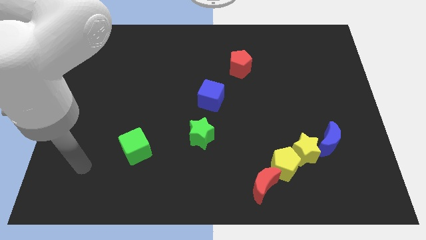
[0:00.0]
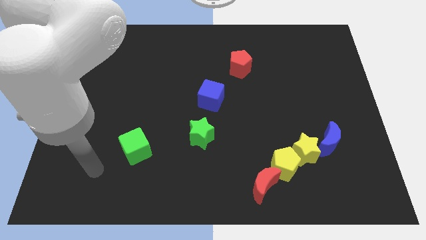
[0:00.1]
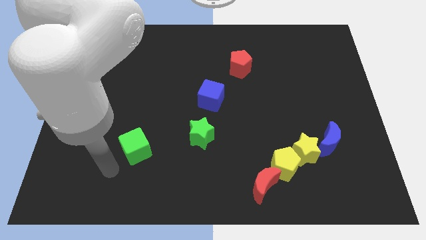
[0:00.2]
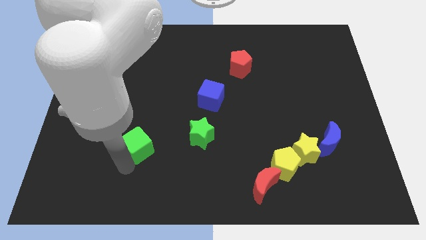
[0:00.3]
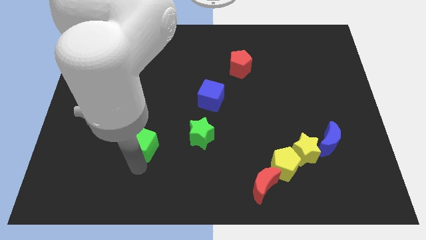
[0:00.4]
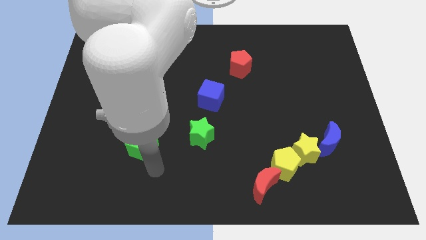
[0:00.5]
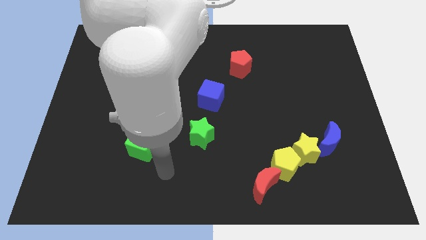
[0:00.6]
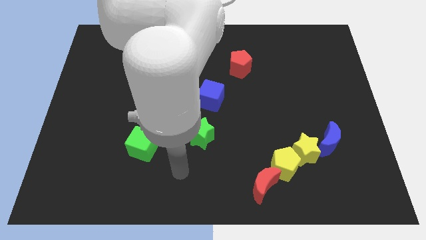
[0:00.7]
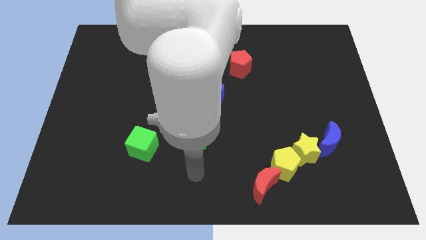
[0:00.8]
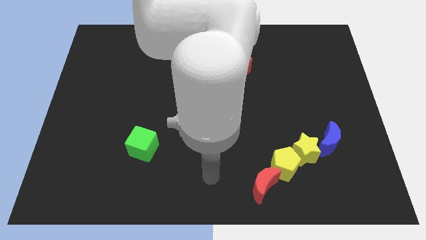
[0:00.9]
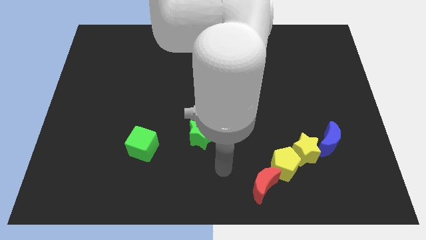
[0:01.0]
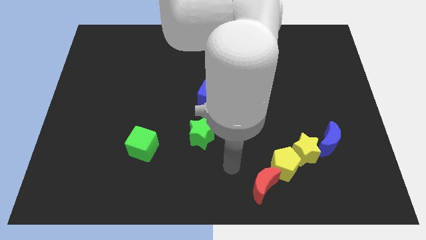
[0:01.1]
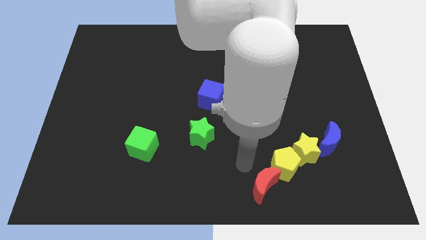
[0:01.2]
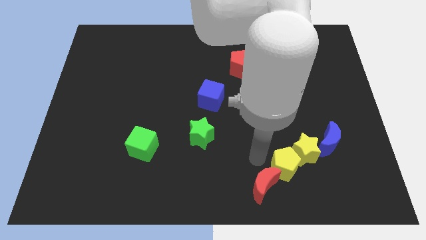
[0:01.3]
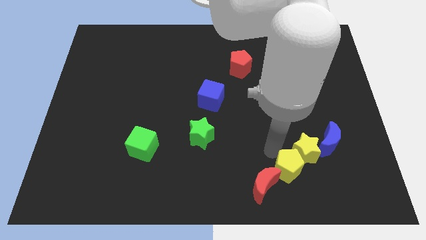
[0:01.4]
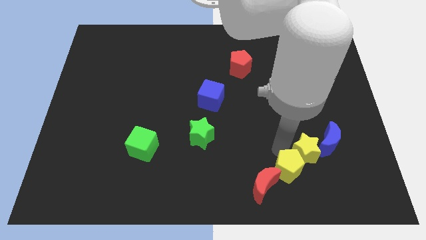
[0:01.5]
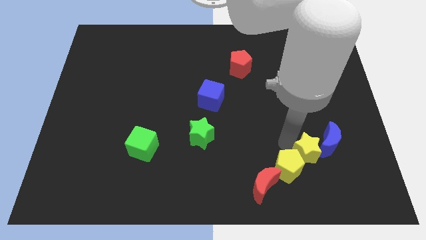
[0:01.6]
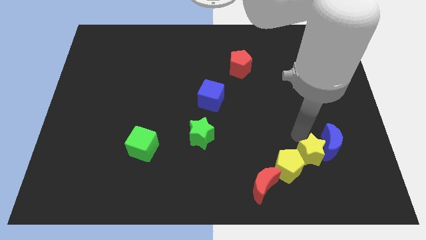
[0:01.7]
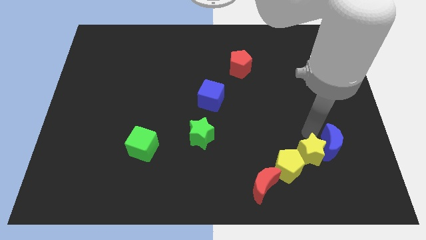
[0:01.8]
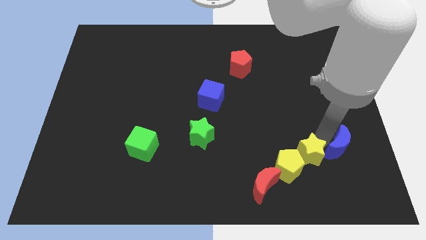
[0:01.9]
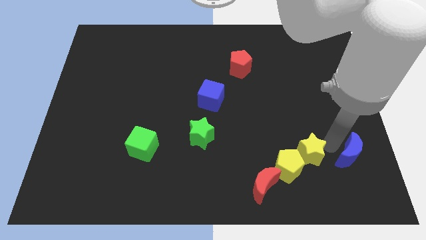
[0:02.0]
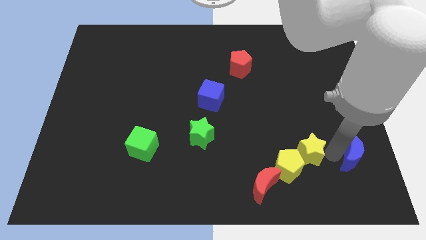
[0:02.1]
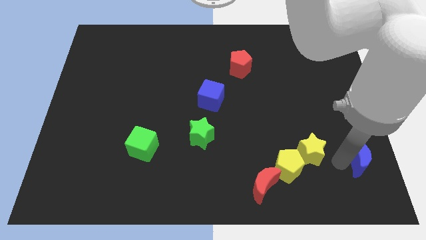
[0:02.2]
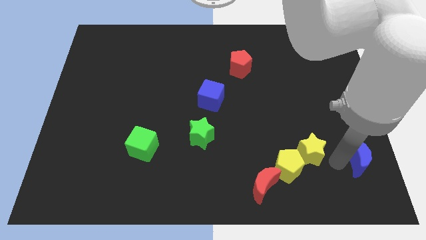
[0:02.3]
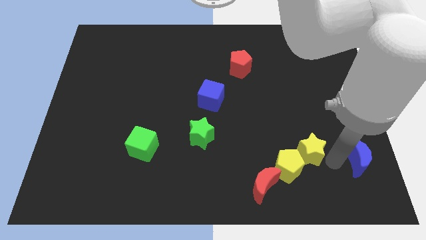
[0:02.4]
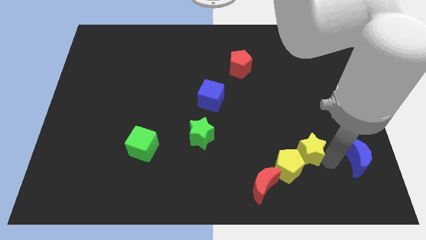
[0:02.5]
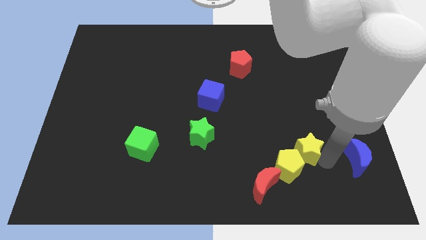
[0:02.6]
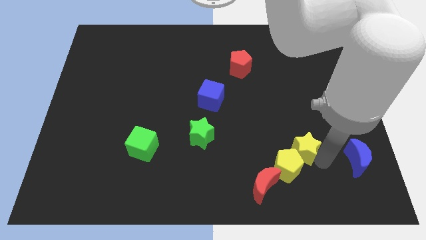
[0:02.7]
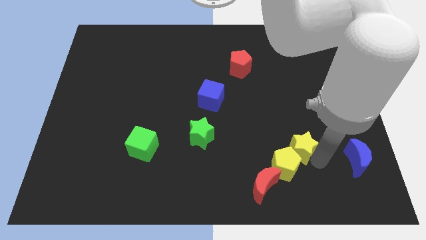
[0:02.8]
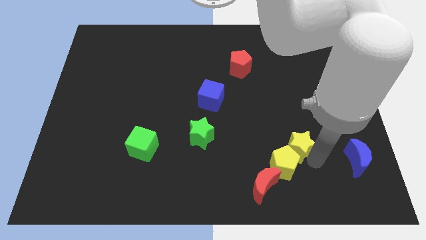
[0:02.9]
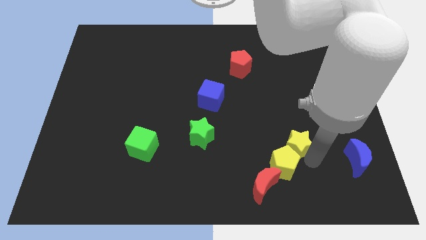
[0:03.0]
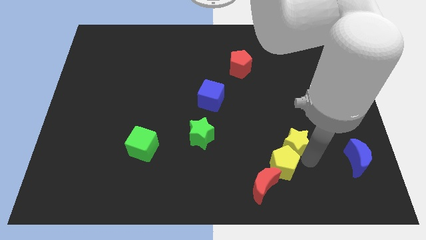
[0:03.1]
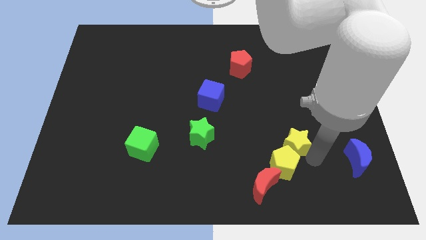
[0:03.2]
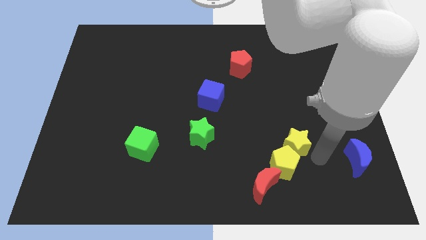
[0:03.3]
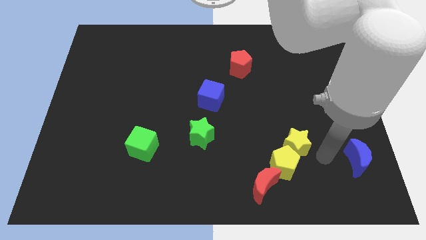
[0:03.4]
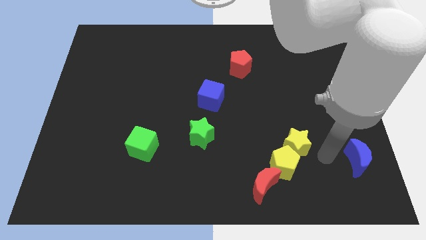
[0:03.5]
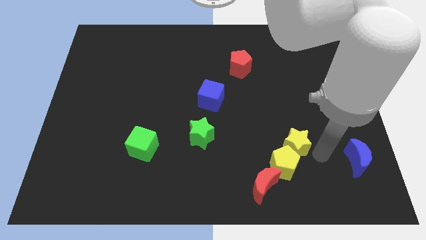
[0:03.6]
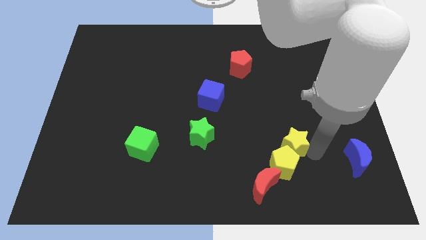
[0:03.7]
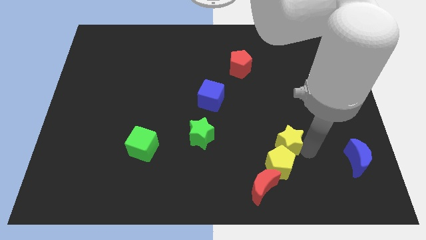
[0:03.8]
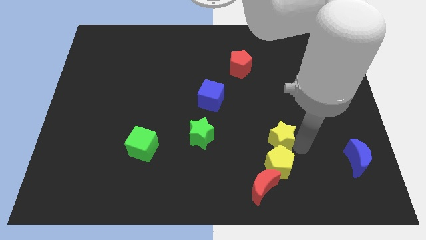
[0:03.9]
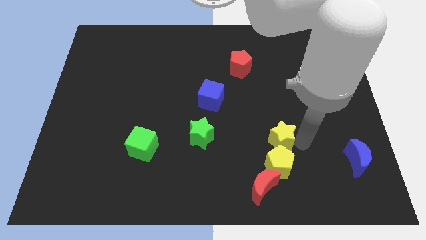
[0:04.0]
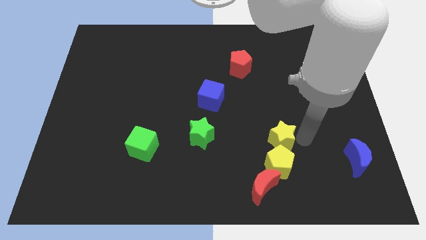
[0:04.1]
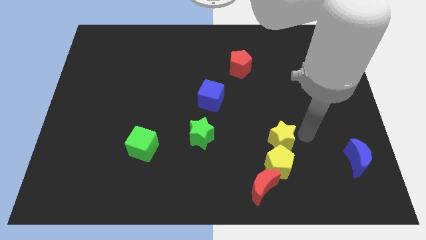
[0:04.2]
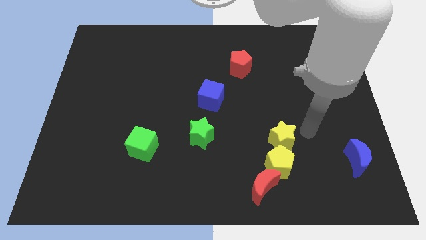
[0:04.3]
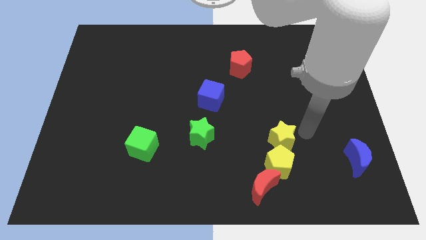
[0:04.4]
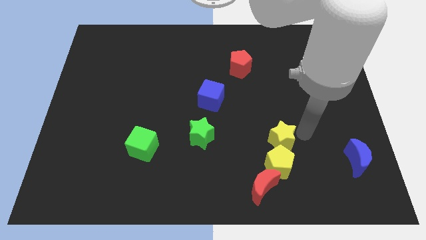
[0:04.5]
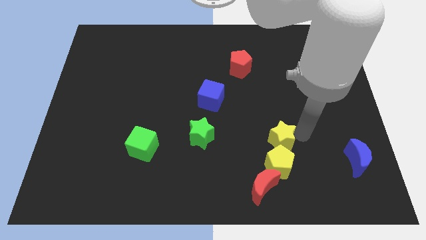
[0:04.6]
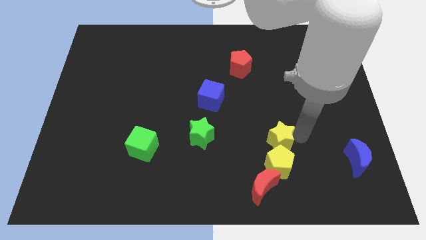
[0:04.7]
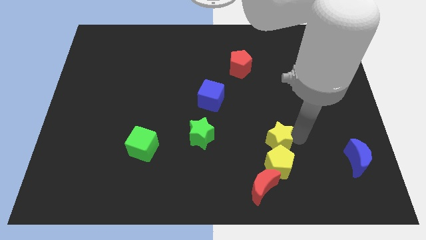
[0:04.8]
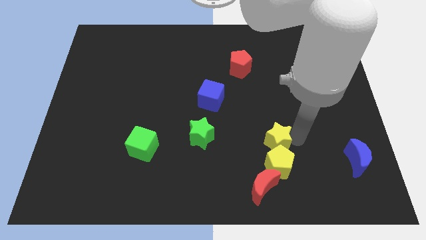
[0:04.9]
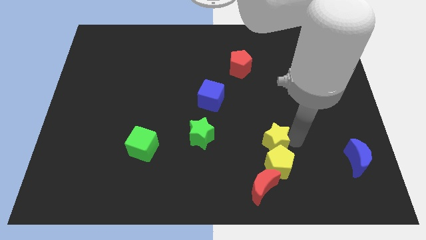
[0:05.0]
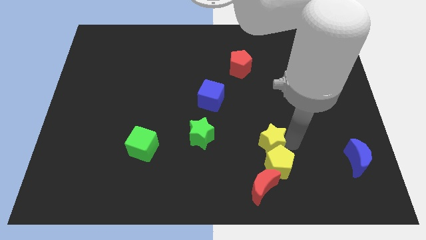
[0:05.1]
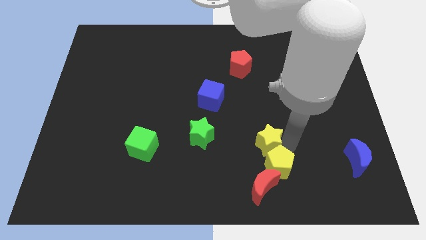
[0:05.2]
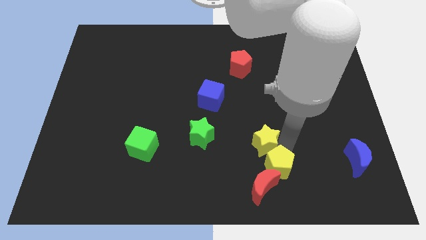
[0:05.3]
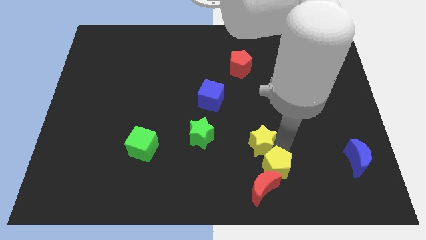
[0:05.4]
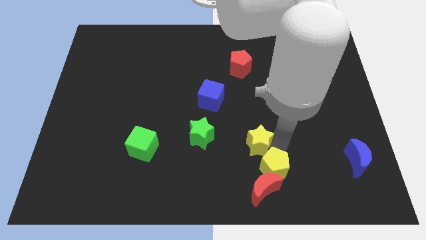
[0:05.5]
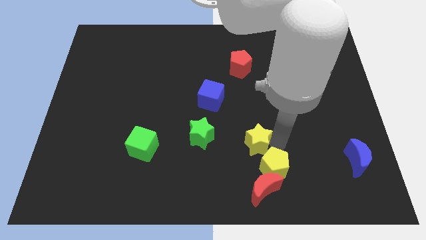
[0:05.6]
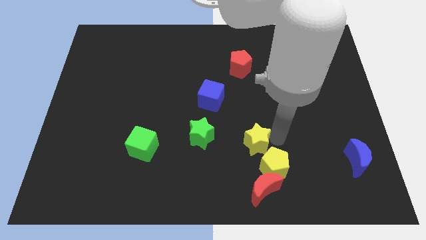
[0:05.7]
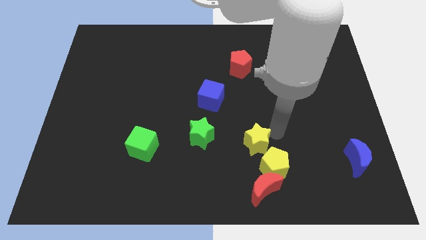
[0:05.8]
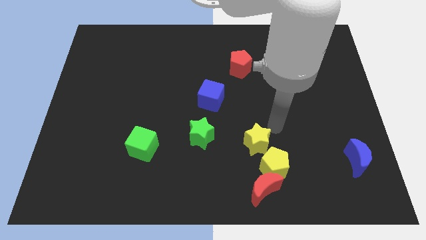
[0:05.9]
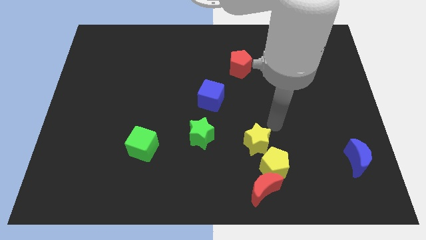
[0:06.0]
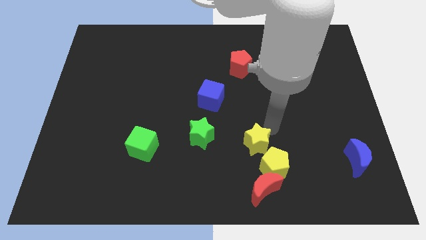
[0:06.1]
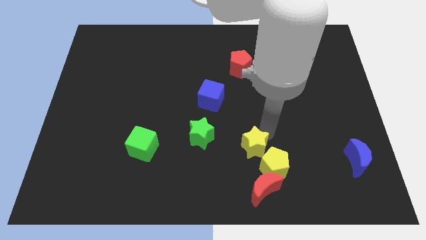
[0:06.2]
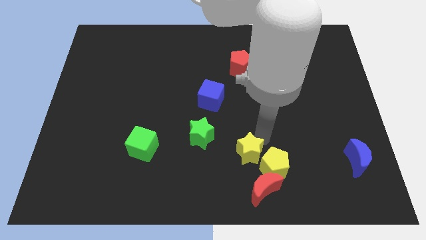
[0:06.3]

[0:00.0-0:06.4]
slide the yellow star to the top left side of the red moon
